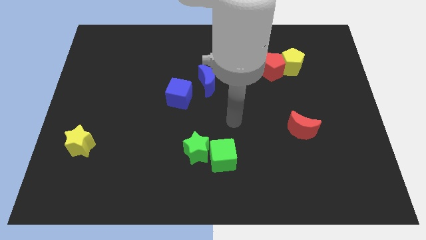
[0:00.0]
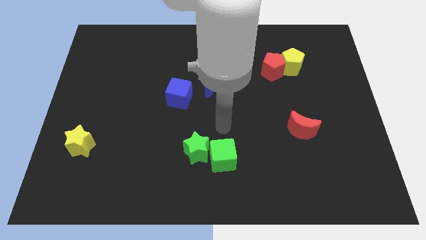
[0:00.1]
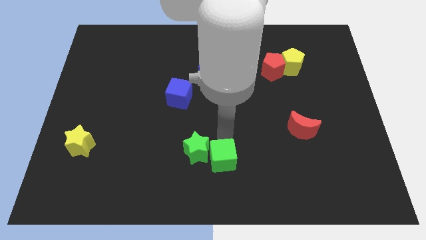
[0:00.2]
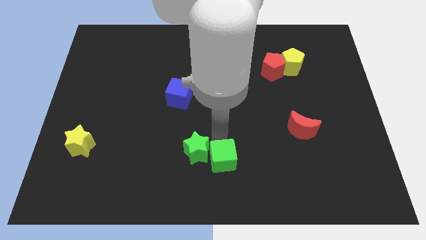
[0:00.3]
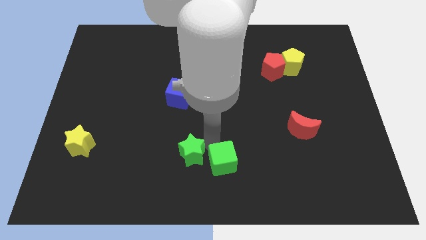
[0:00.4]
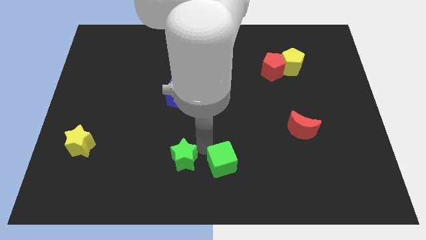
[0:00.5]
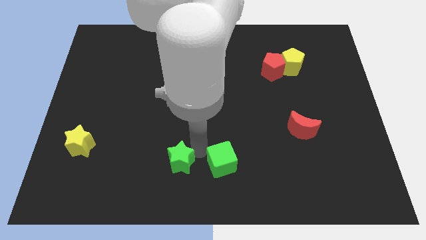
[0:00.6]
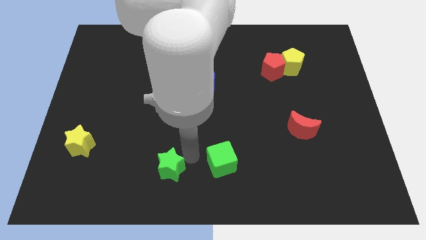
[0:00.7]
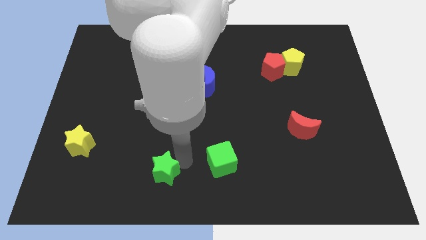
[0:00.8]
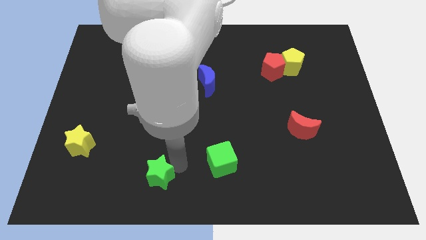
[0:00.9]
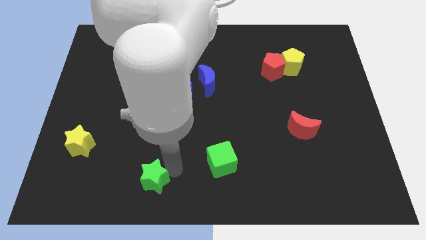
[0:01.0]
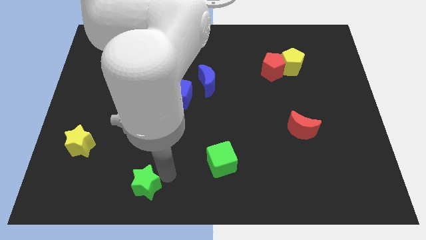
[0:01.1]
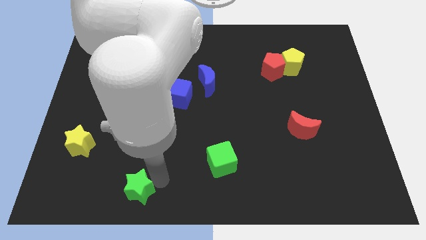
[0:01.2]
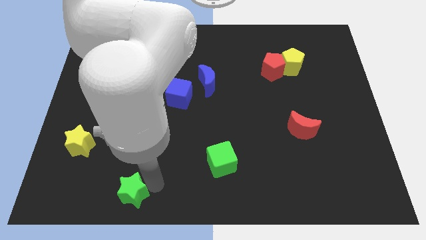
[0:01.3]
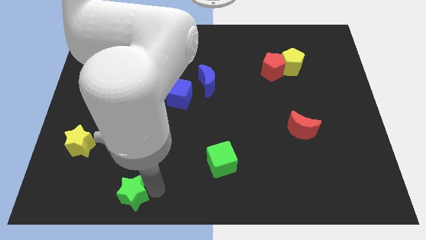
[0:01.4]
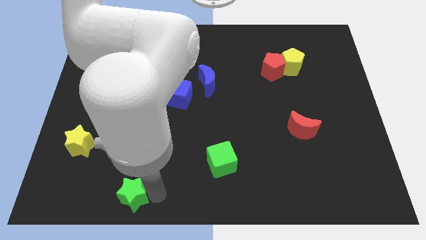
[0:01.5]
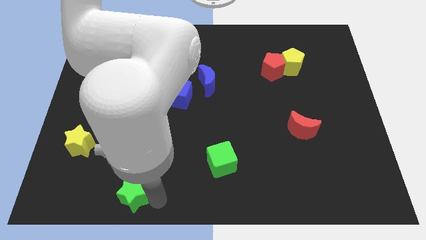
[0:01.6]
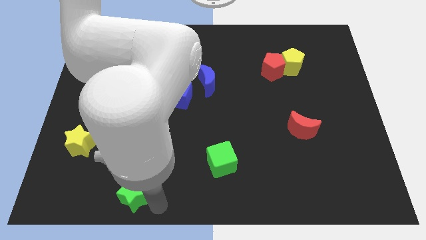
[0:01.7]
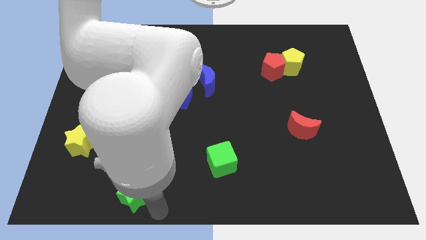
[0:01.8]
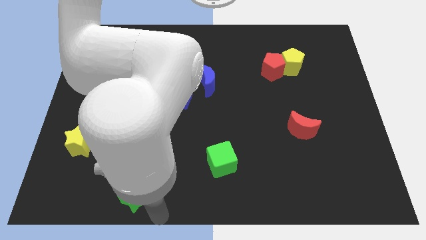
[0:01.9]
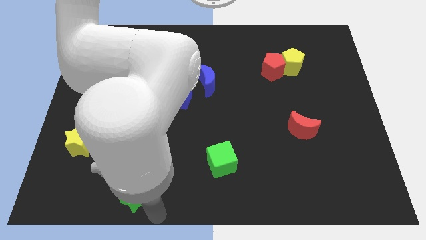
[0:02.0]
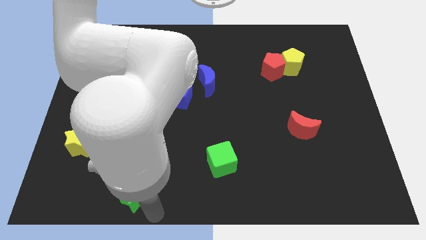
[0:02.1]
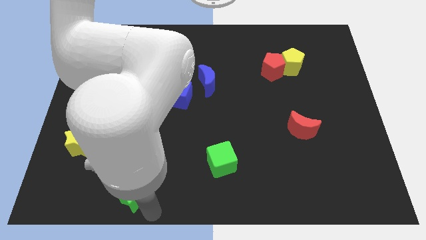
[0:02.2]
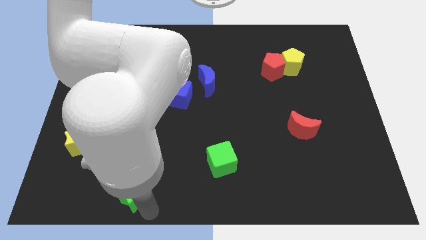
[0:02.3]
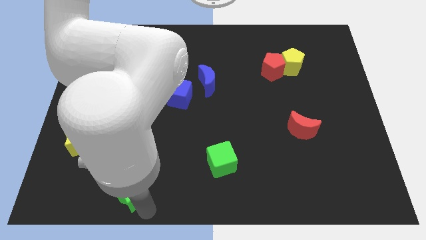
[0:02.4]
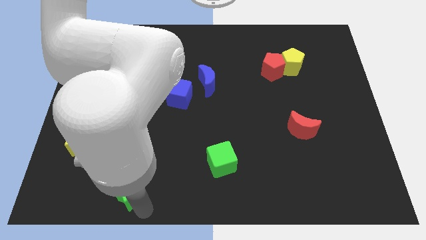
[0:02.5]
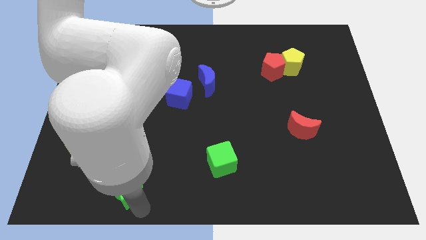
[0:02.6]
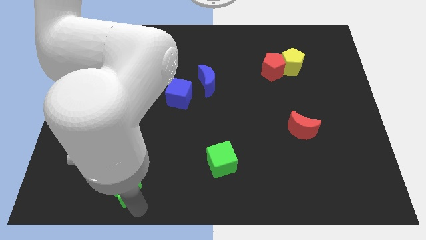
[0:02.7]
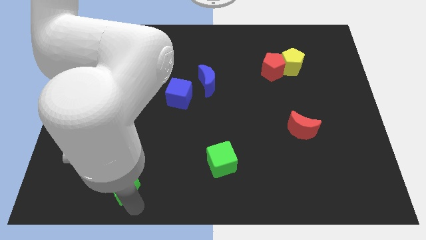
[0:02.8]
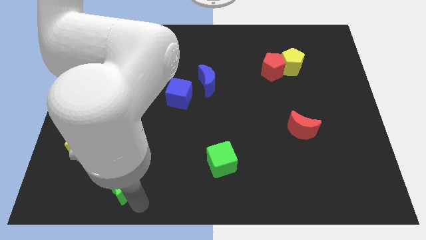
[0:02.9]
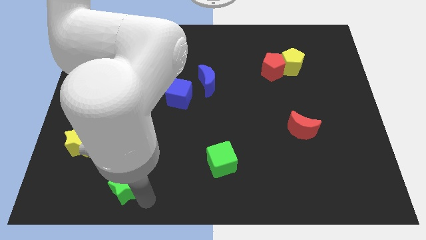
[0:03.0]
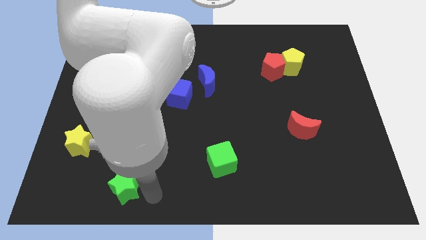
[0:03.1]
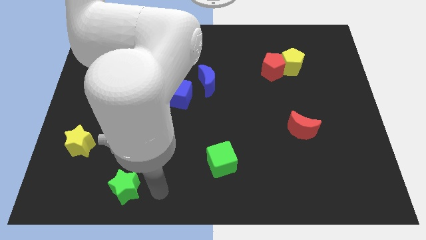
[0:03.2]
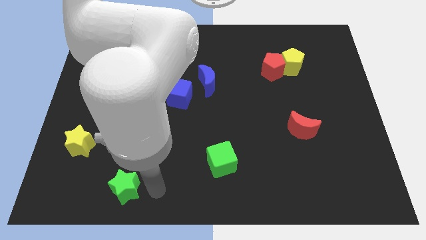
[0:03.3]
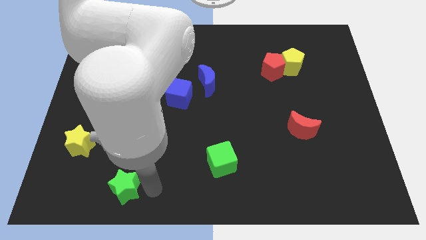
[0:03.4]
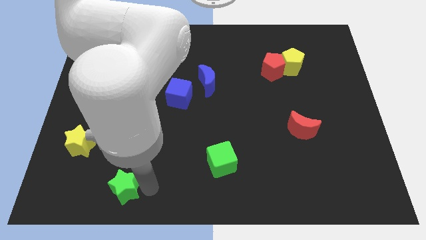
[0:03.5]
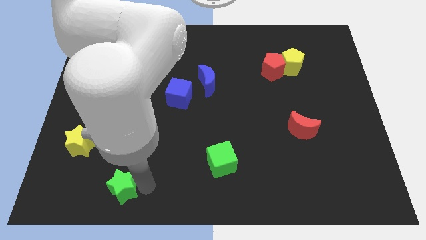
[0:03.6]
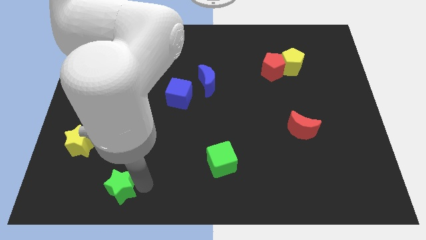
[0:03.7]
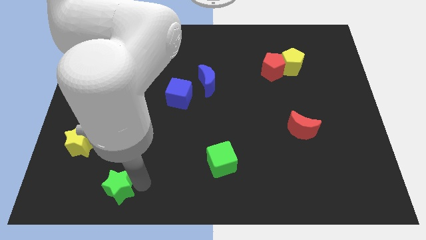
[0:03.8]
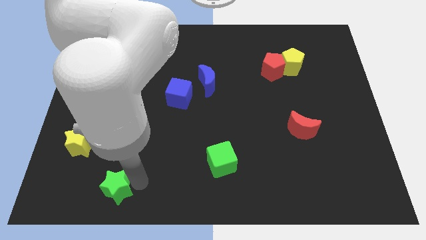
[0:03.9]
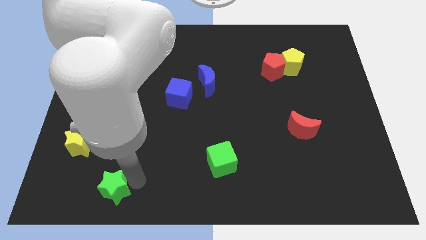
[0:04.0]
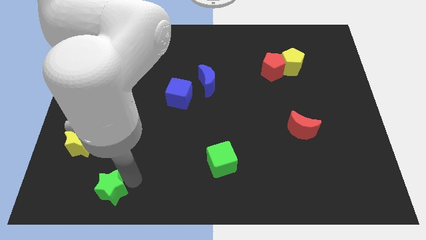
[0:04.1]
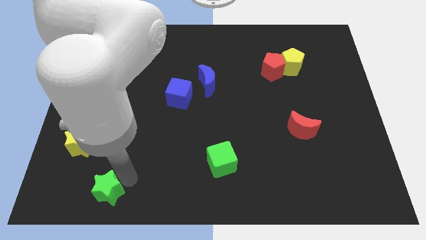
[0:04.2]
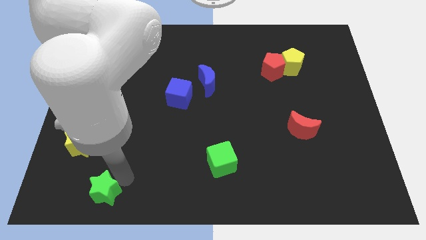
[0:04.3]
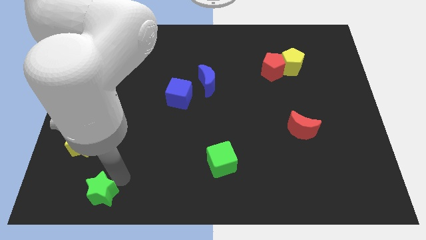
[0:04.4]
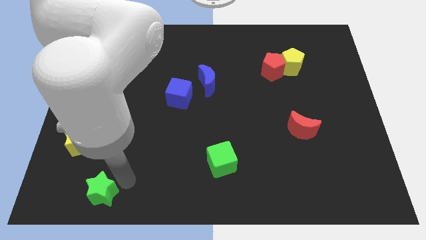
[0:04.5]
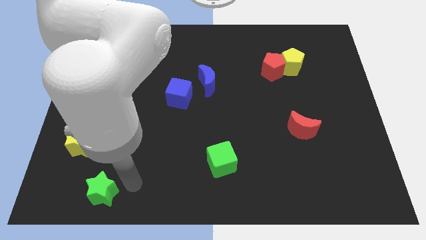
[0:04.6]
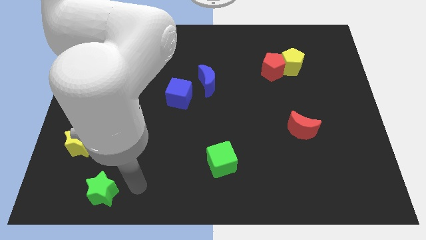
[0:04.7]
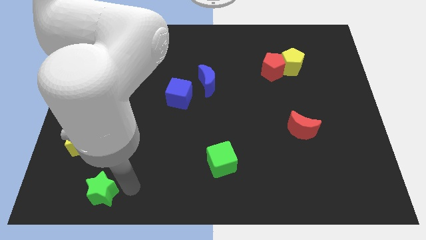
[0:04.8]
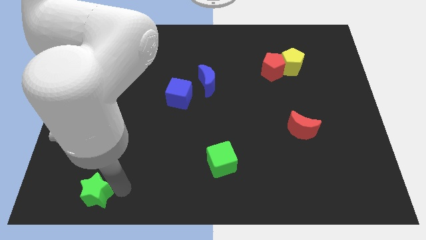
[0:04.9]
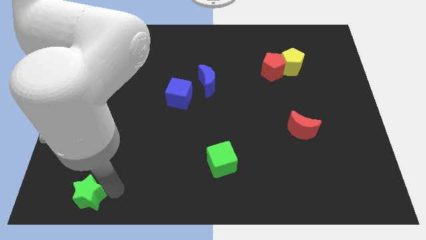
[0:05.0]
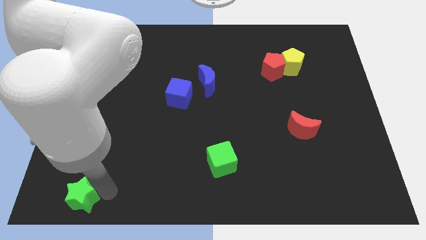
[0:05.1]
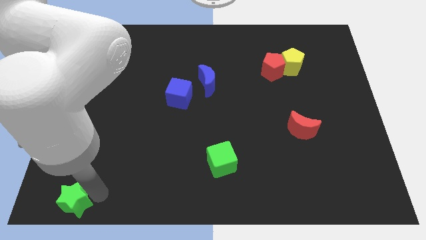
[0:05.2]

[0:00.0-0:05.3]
slide the green star to the bottom left
